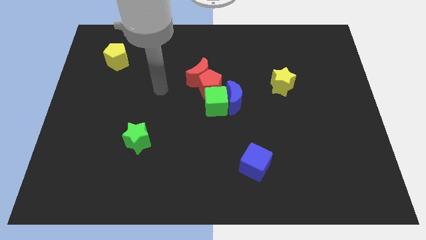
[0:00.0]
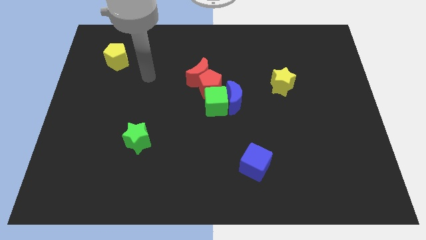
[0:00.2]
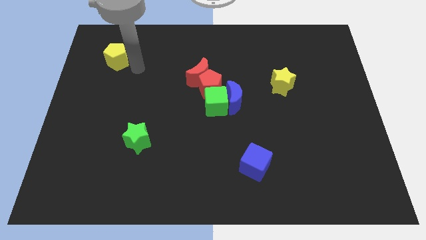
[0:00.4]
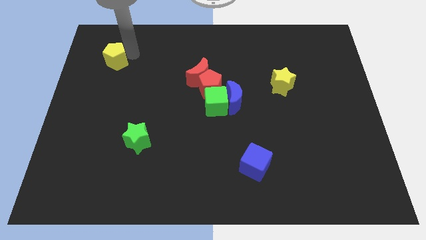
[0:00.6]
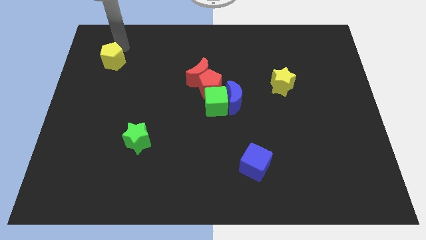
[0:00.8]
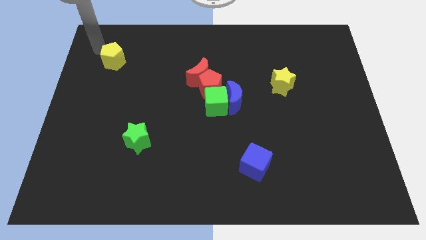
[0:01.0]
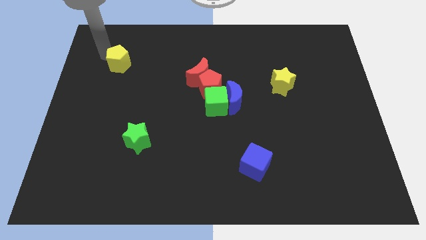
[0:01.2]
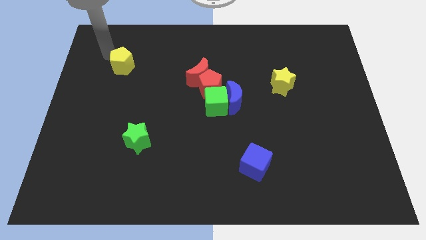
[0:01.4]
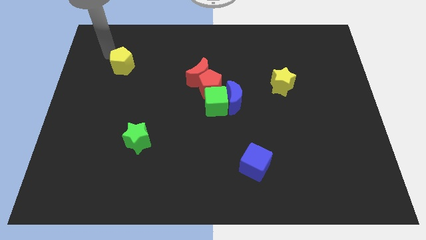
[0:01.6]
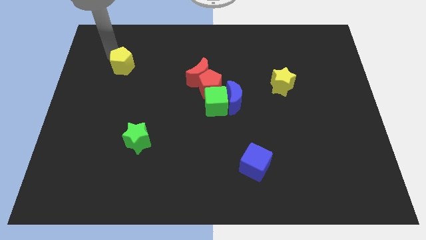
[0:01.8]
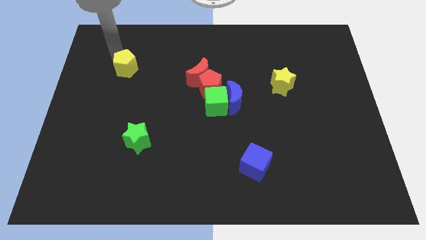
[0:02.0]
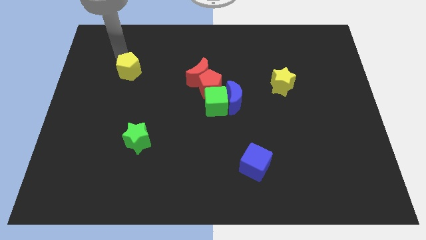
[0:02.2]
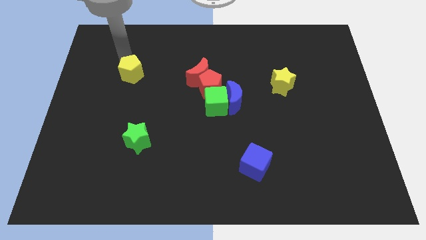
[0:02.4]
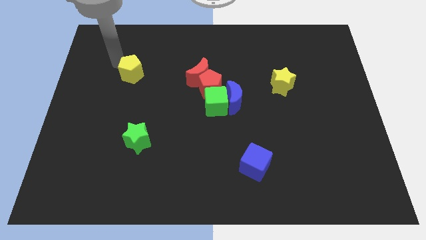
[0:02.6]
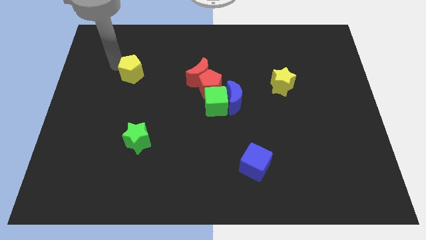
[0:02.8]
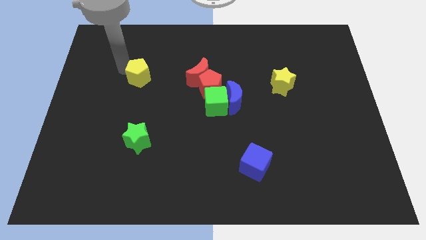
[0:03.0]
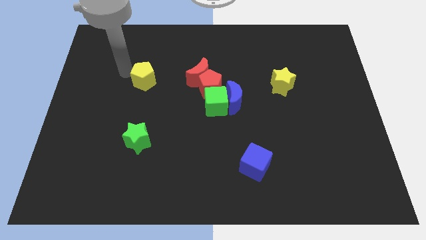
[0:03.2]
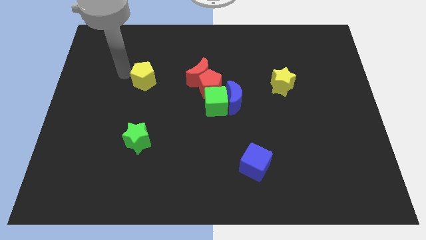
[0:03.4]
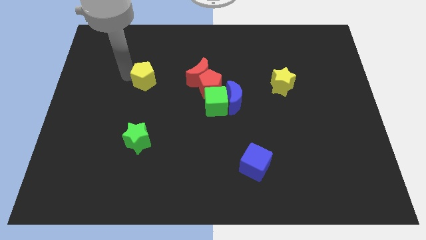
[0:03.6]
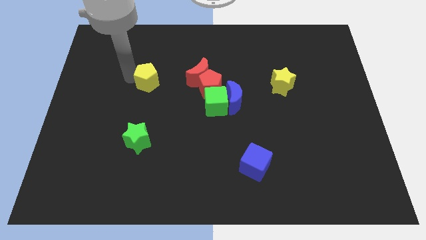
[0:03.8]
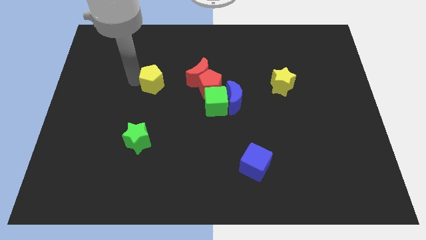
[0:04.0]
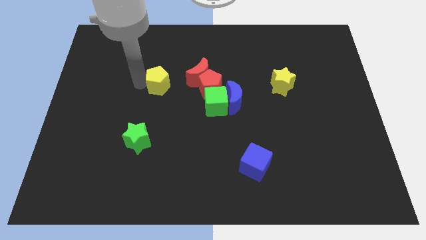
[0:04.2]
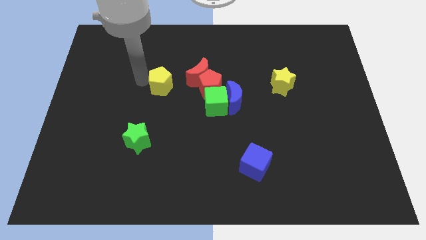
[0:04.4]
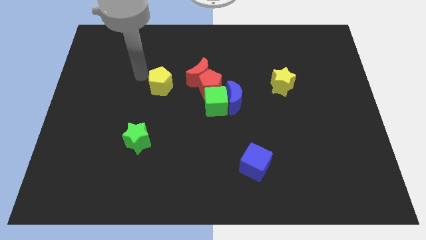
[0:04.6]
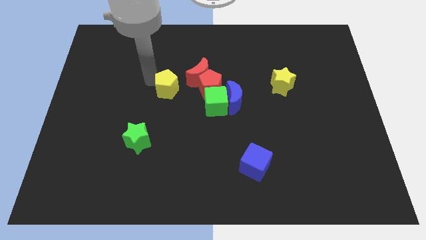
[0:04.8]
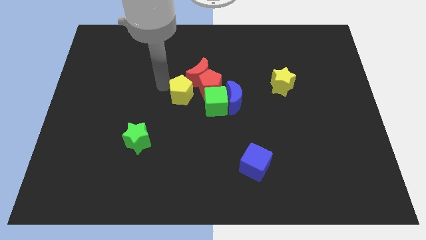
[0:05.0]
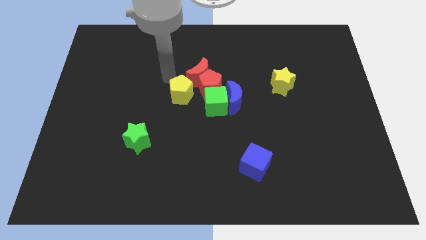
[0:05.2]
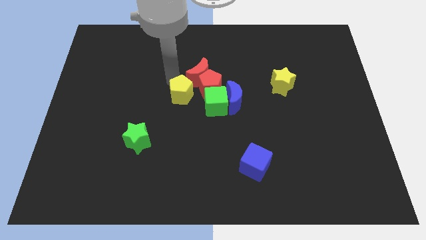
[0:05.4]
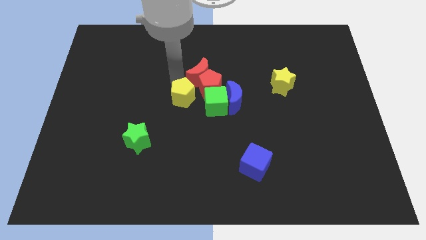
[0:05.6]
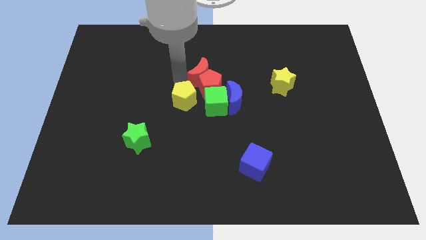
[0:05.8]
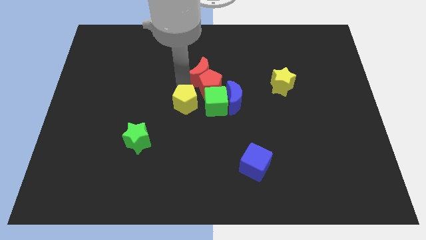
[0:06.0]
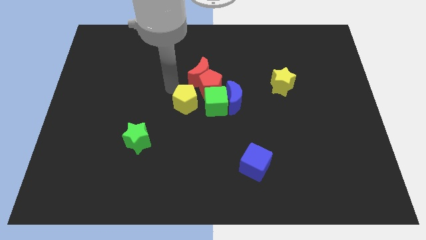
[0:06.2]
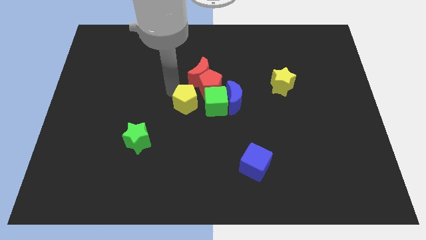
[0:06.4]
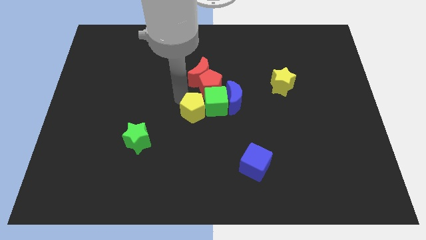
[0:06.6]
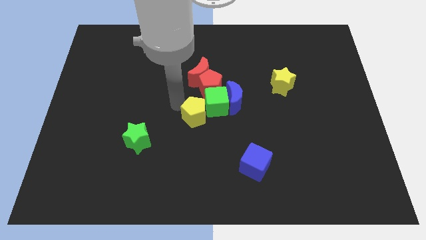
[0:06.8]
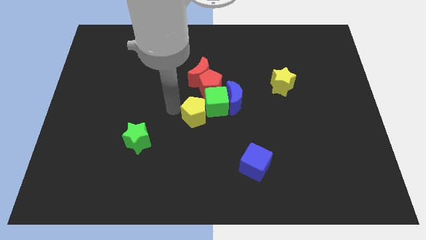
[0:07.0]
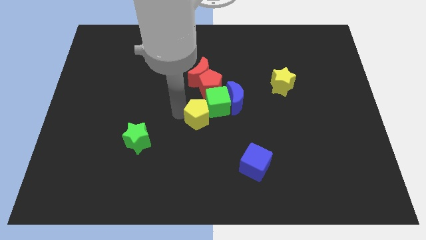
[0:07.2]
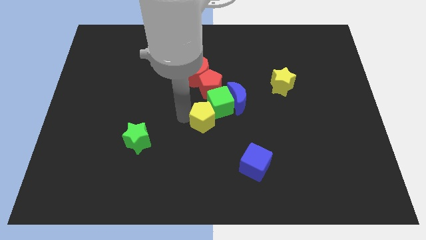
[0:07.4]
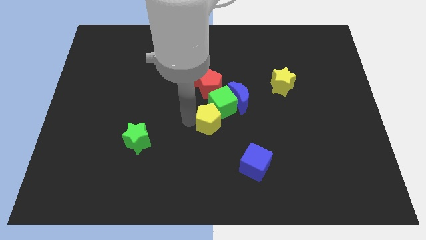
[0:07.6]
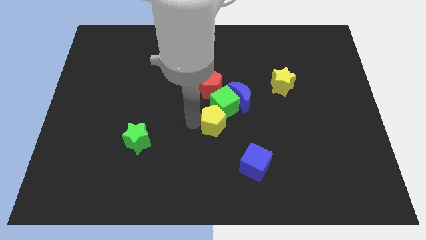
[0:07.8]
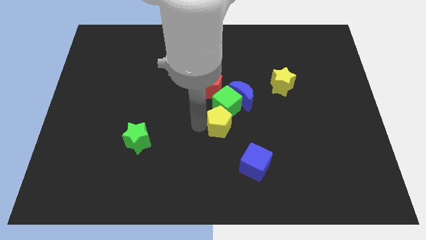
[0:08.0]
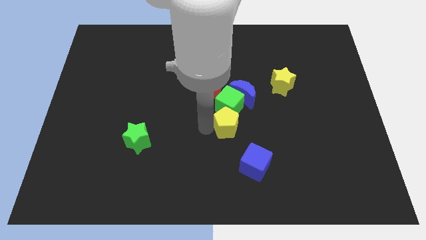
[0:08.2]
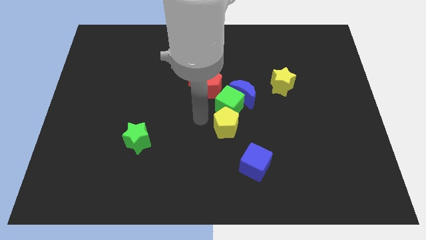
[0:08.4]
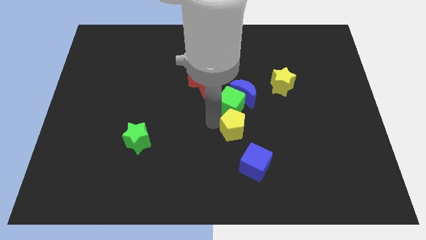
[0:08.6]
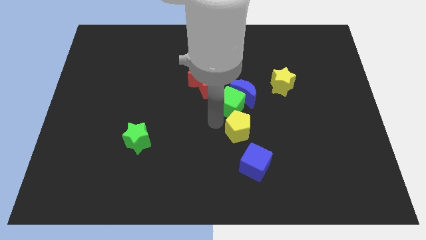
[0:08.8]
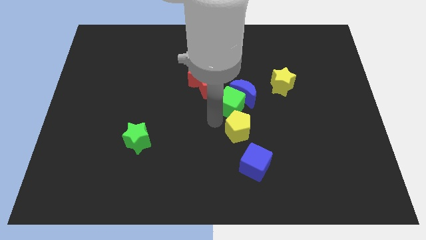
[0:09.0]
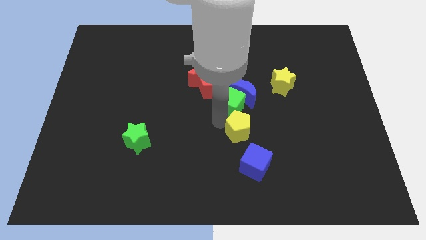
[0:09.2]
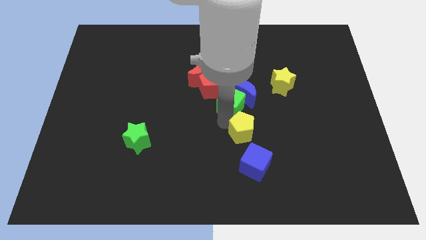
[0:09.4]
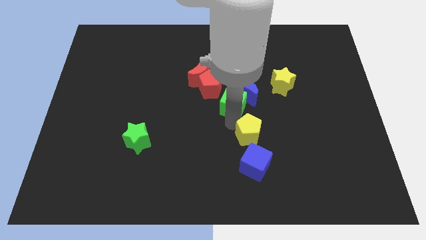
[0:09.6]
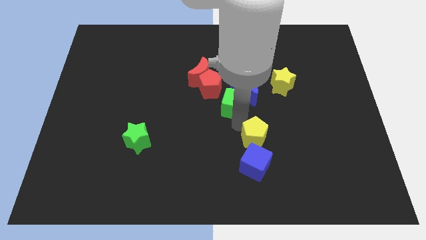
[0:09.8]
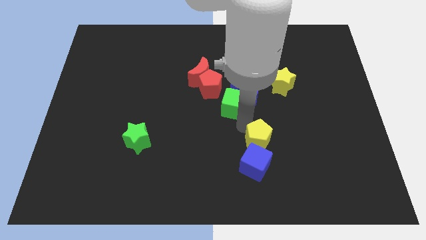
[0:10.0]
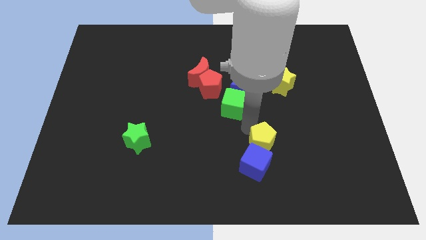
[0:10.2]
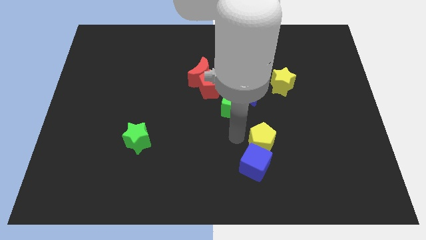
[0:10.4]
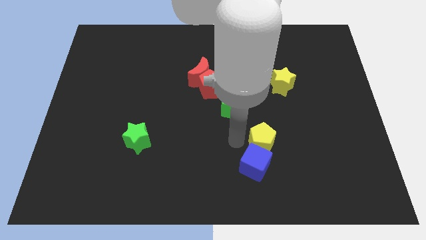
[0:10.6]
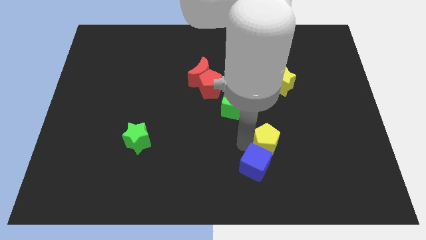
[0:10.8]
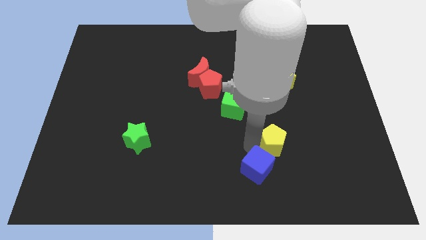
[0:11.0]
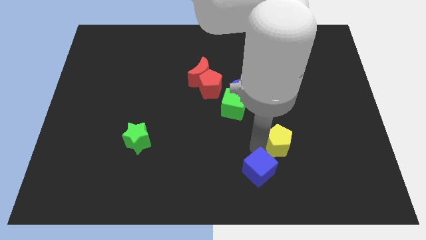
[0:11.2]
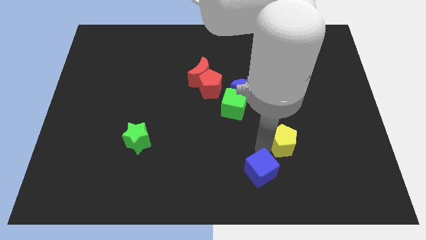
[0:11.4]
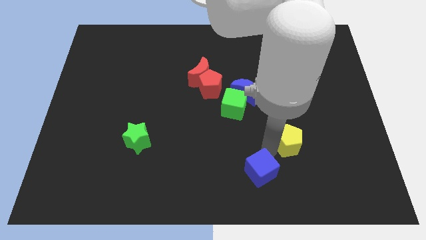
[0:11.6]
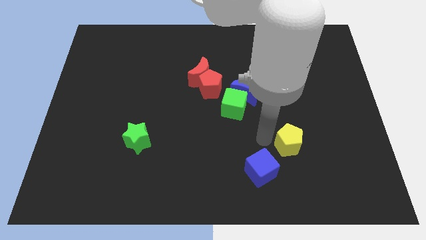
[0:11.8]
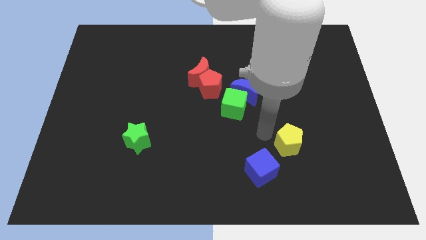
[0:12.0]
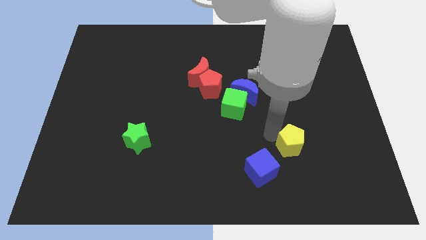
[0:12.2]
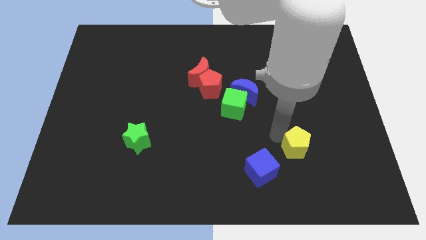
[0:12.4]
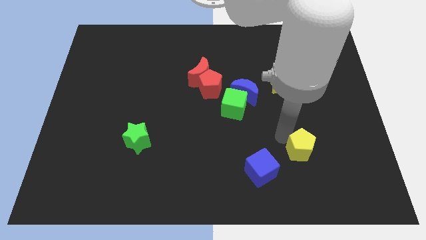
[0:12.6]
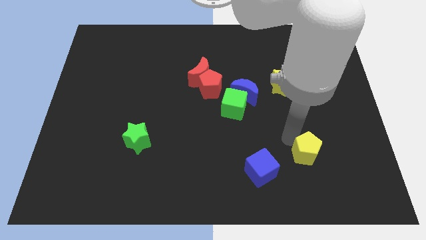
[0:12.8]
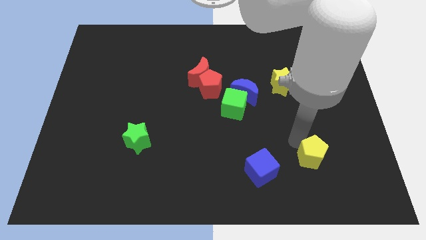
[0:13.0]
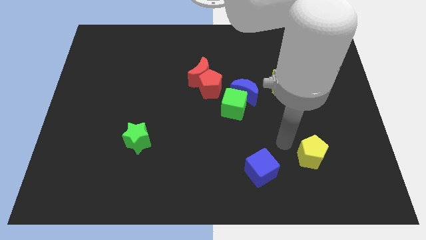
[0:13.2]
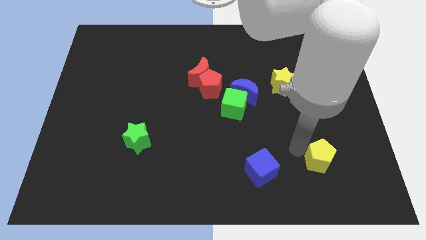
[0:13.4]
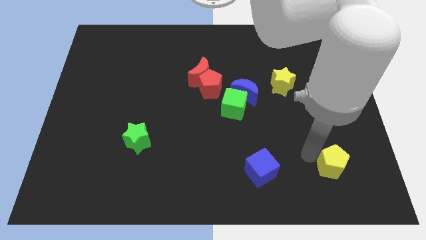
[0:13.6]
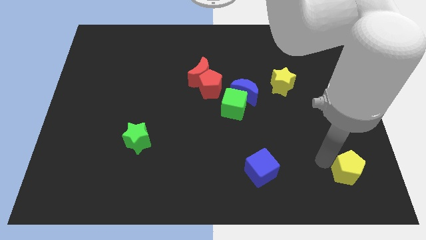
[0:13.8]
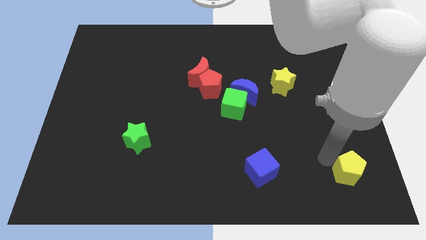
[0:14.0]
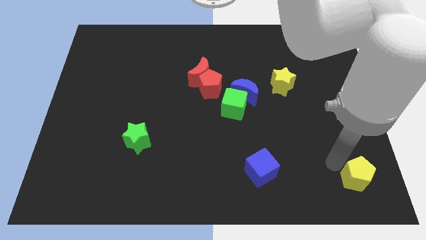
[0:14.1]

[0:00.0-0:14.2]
slide the yellow pentagon to the bottom right
